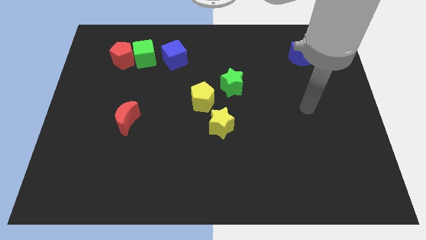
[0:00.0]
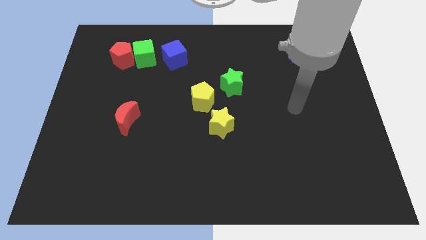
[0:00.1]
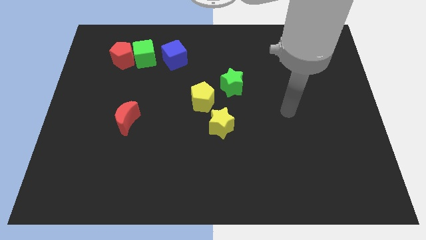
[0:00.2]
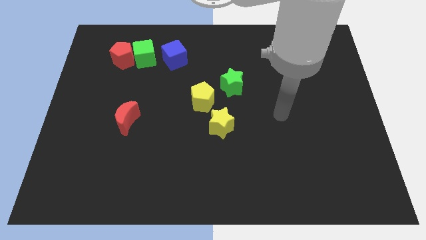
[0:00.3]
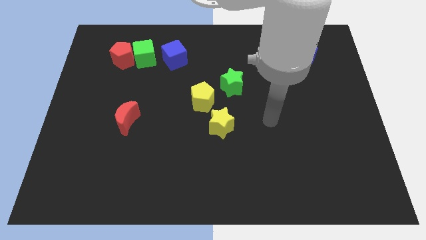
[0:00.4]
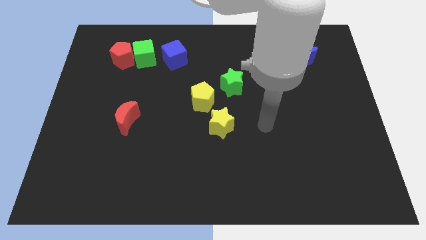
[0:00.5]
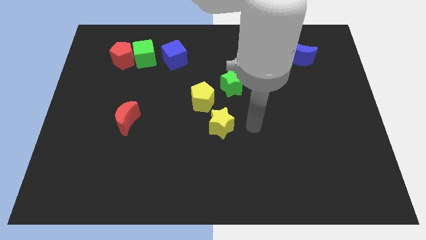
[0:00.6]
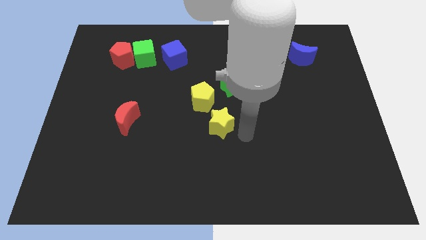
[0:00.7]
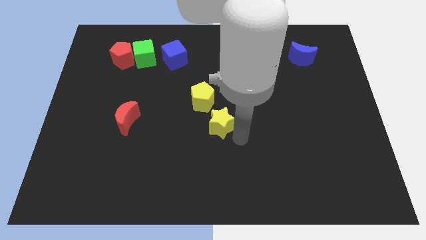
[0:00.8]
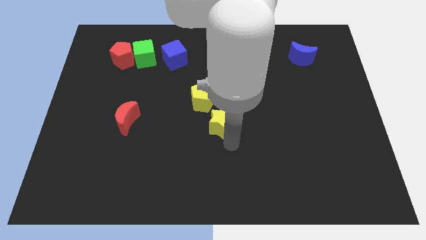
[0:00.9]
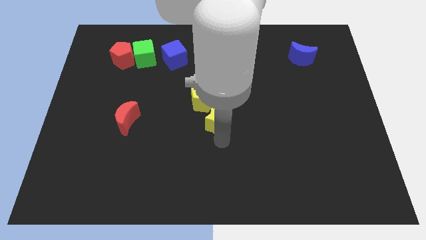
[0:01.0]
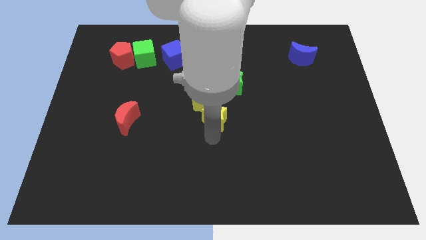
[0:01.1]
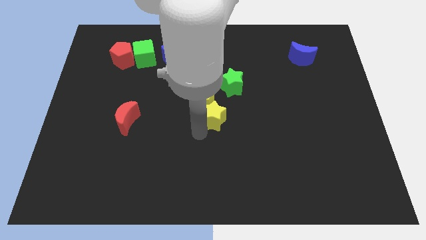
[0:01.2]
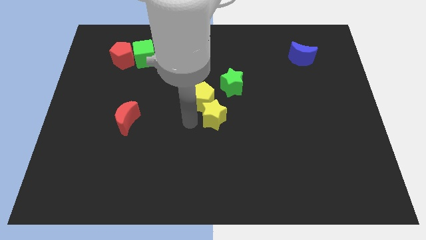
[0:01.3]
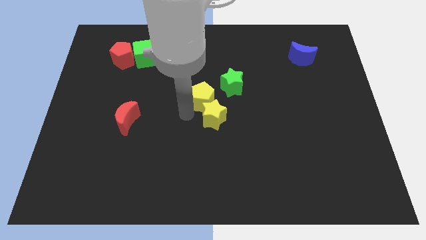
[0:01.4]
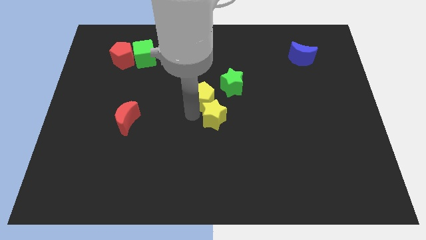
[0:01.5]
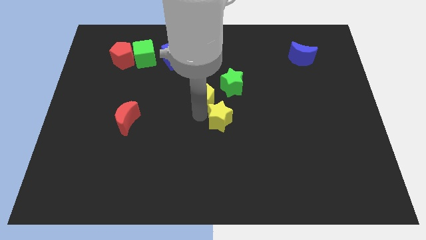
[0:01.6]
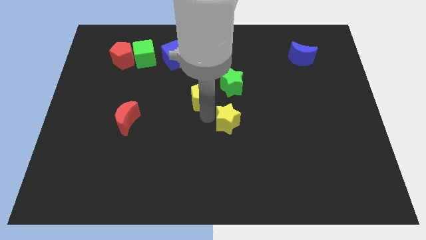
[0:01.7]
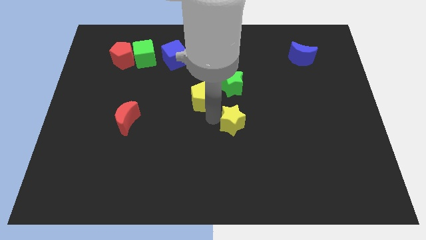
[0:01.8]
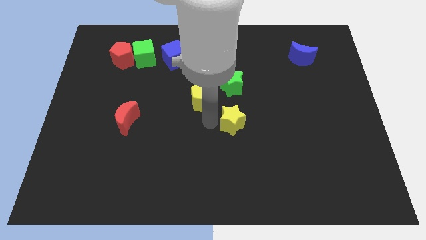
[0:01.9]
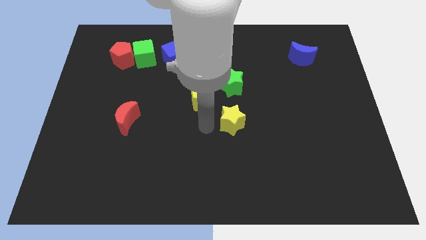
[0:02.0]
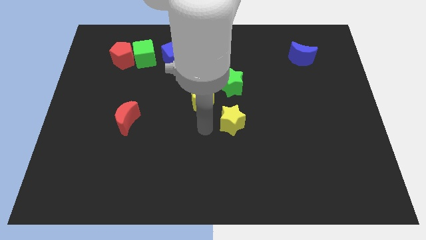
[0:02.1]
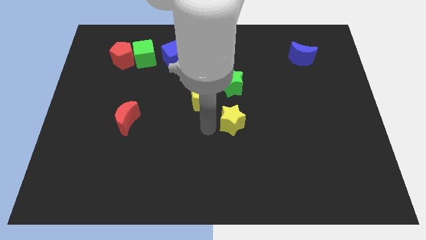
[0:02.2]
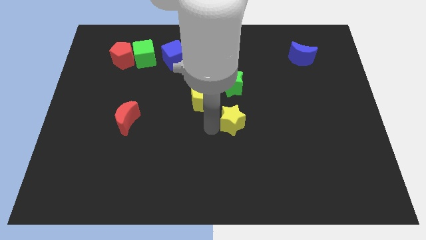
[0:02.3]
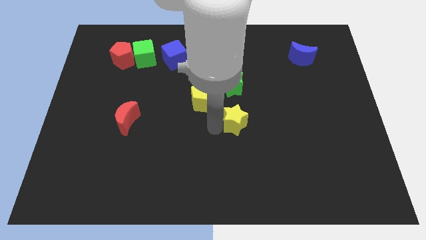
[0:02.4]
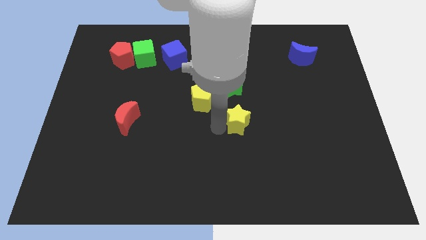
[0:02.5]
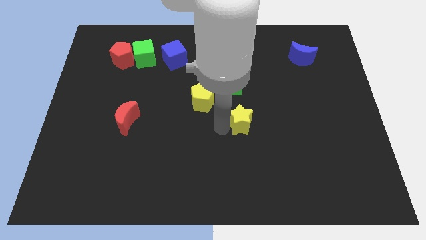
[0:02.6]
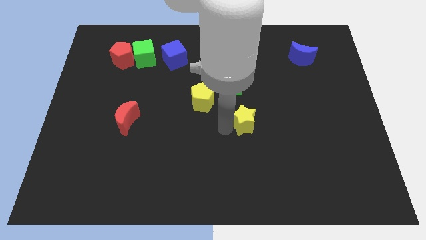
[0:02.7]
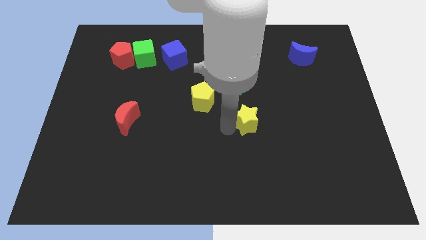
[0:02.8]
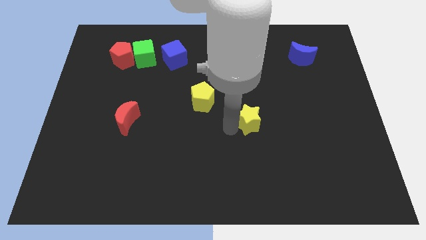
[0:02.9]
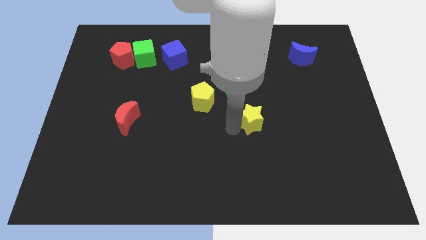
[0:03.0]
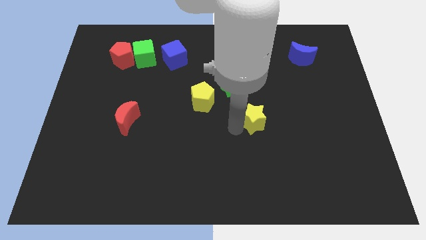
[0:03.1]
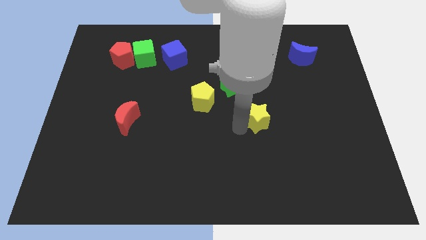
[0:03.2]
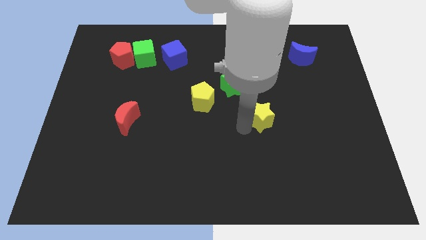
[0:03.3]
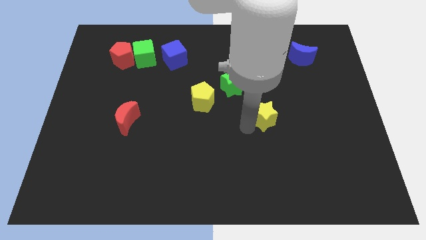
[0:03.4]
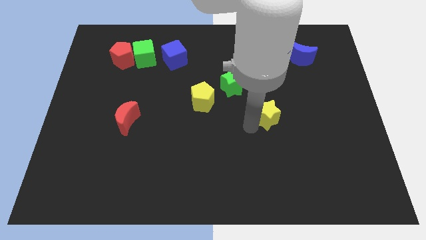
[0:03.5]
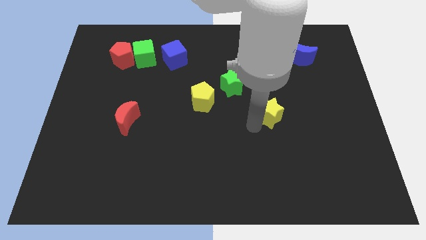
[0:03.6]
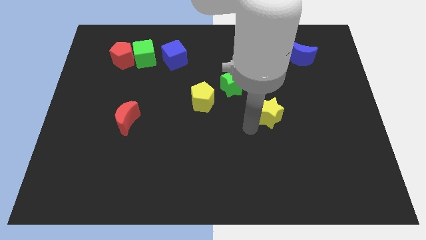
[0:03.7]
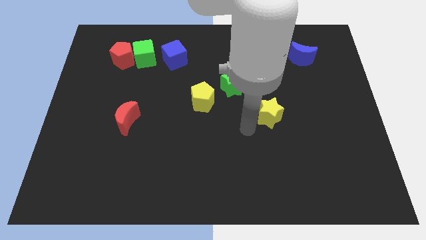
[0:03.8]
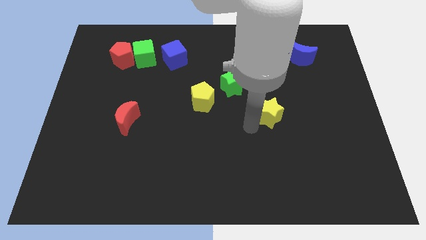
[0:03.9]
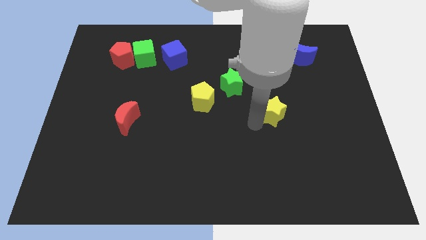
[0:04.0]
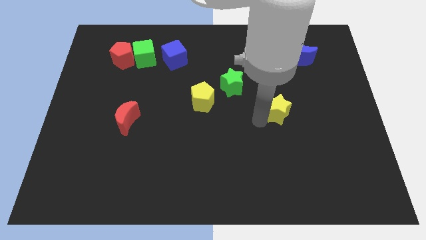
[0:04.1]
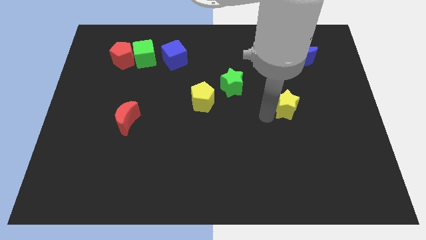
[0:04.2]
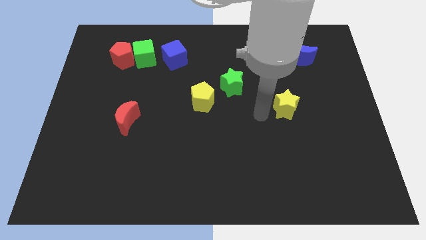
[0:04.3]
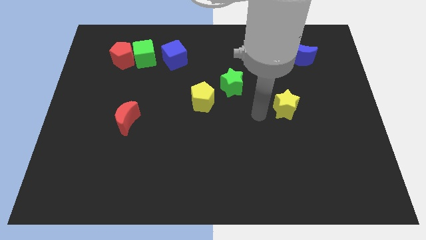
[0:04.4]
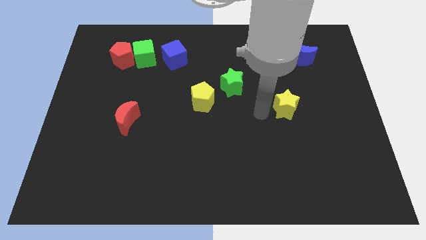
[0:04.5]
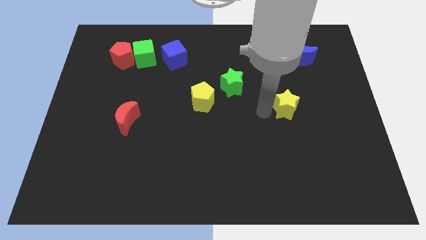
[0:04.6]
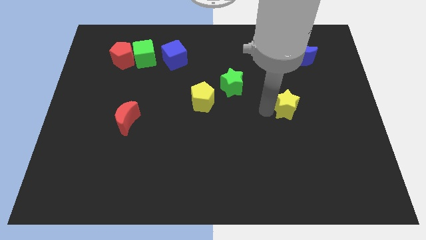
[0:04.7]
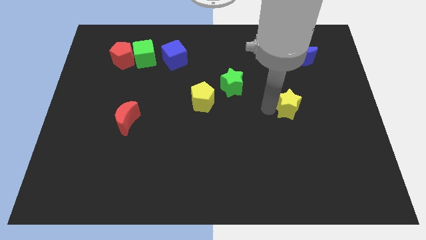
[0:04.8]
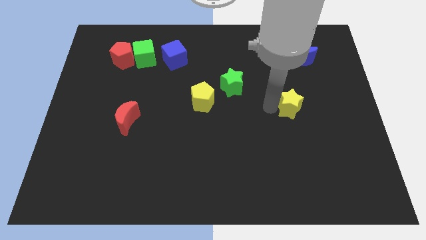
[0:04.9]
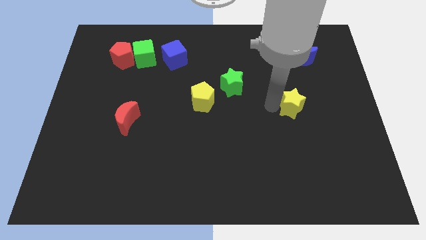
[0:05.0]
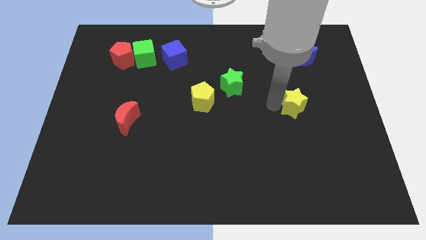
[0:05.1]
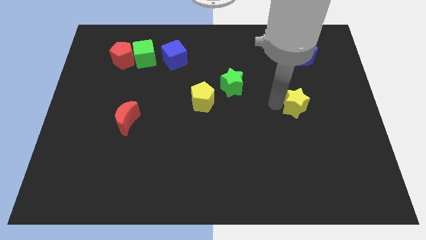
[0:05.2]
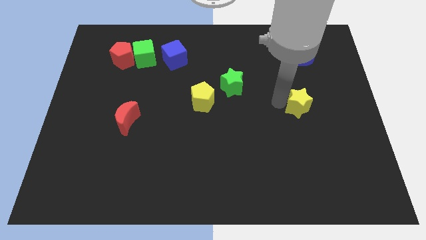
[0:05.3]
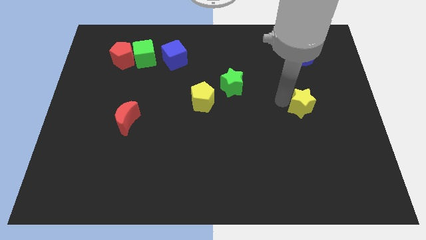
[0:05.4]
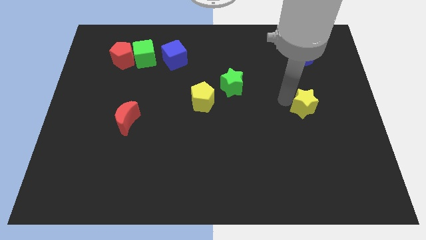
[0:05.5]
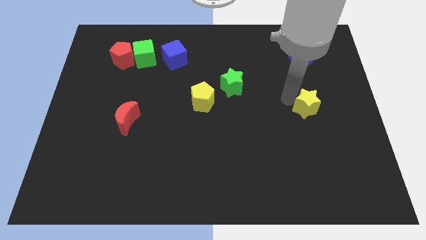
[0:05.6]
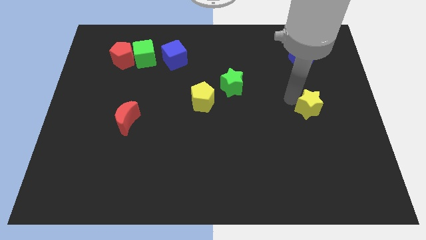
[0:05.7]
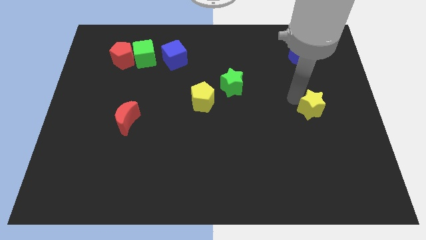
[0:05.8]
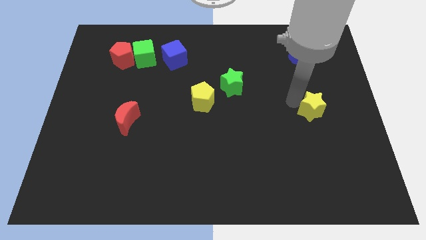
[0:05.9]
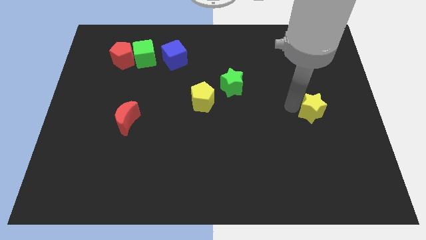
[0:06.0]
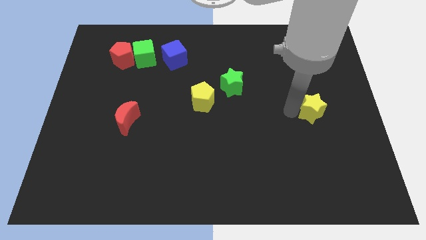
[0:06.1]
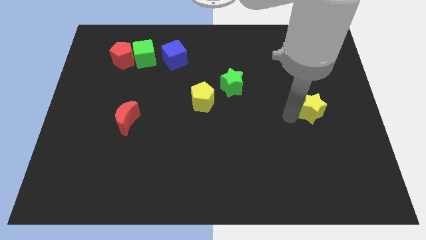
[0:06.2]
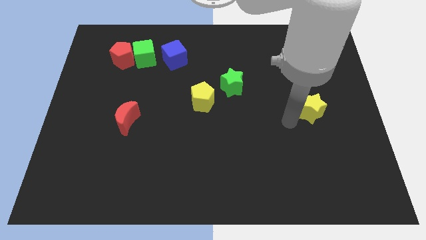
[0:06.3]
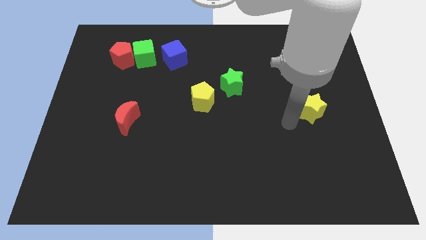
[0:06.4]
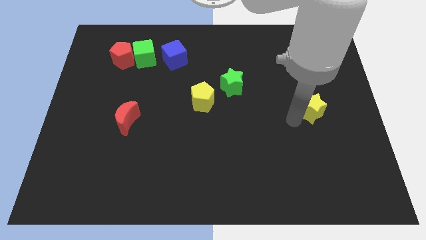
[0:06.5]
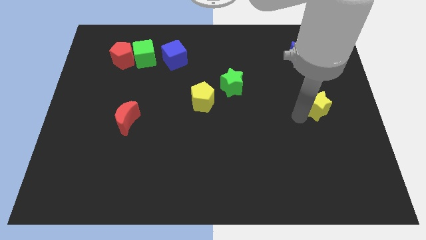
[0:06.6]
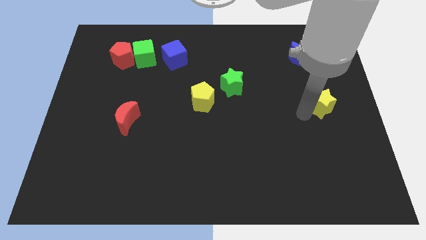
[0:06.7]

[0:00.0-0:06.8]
move the yellow star to the right side

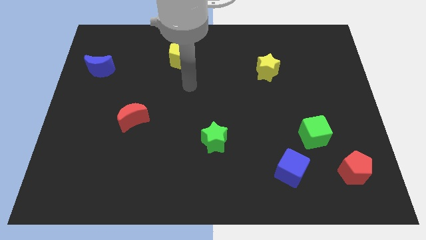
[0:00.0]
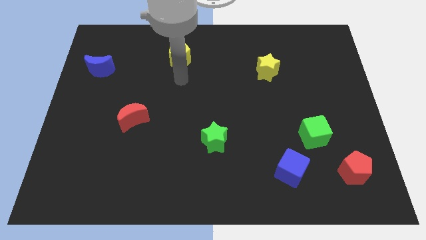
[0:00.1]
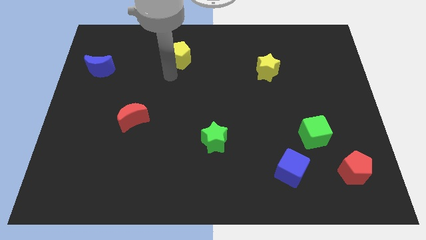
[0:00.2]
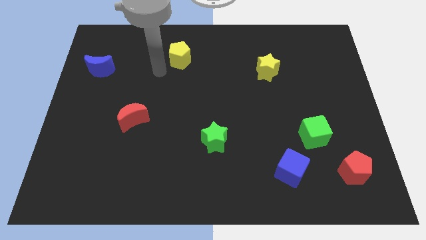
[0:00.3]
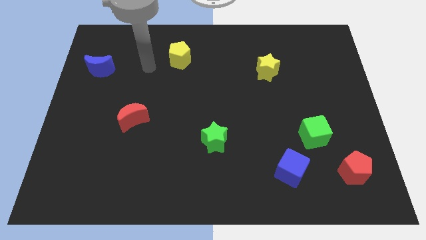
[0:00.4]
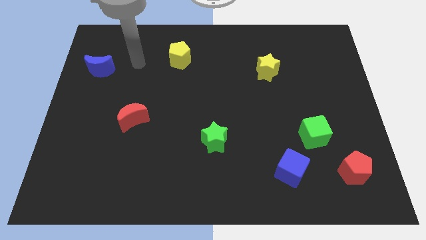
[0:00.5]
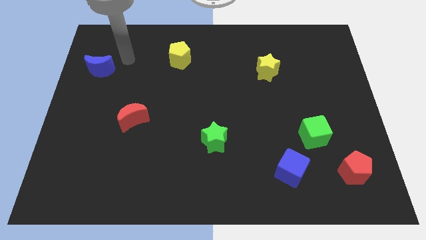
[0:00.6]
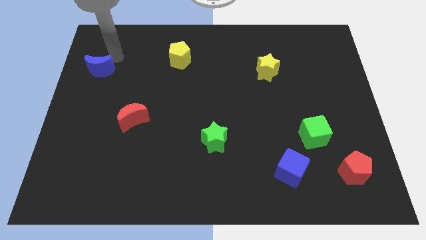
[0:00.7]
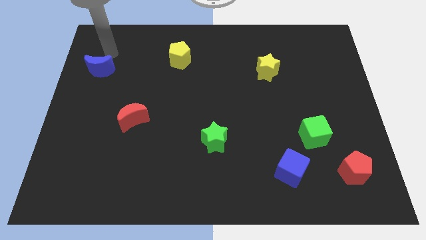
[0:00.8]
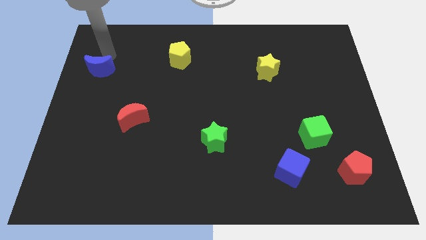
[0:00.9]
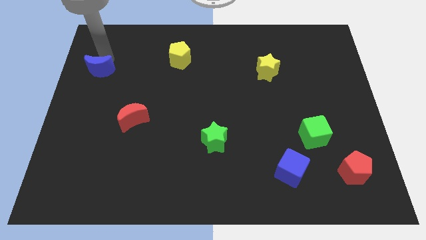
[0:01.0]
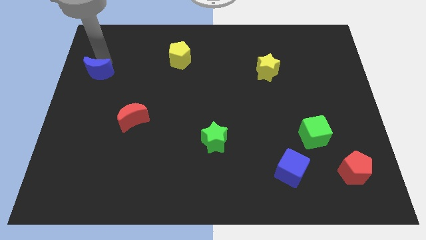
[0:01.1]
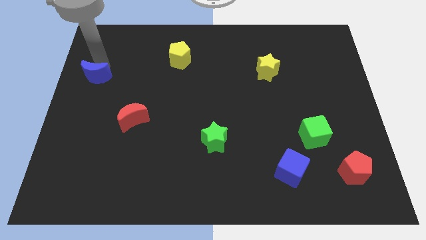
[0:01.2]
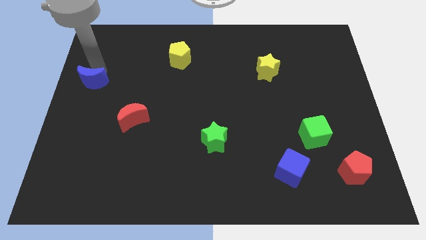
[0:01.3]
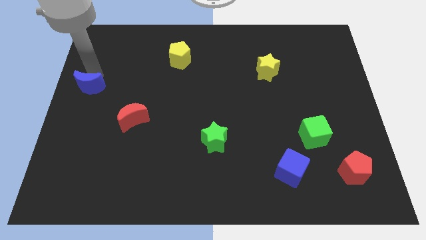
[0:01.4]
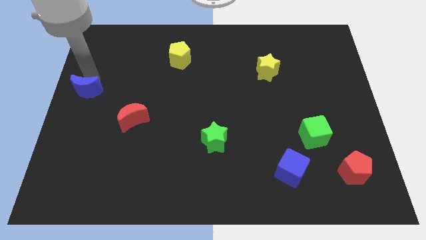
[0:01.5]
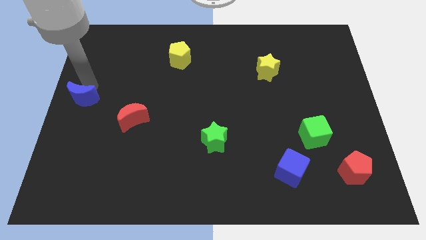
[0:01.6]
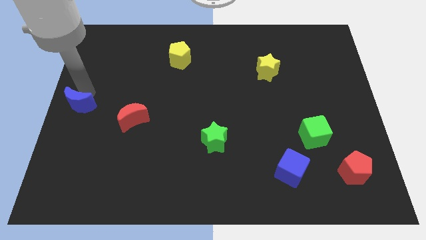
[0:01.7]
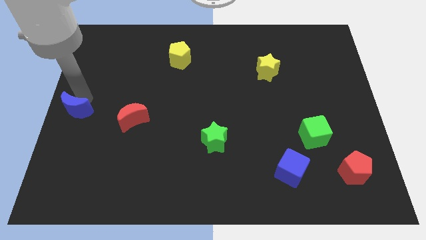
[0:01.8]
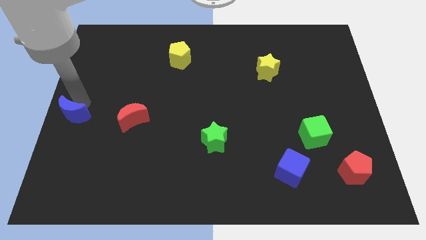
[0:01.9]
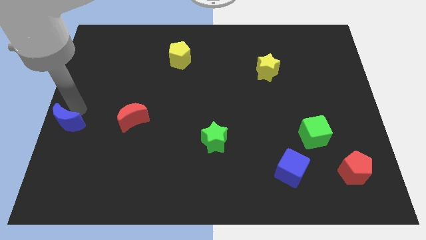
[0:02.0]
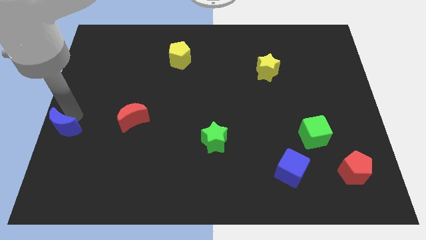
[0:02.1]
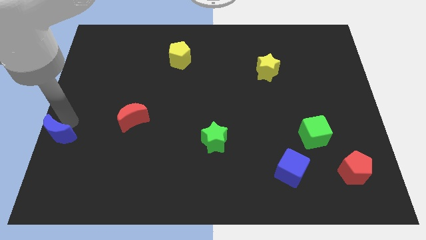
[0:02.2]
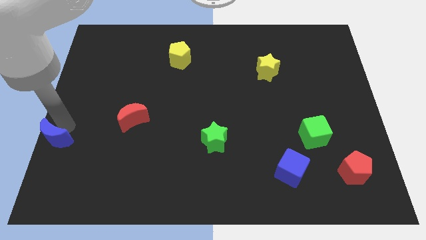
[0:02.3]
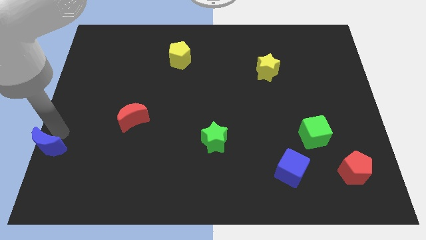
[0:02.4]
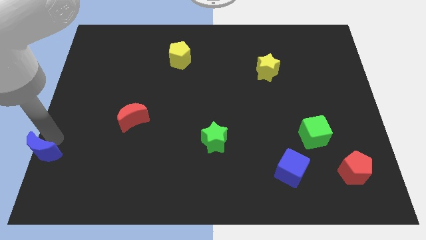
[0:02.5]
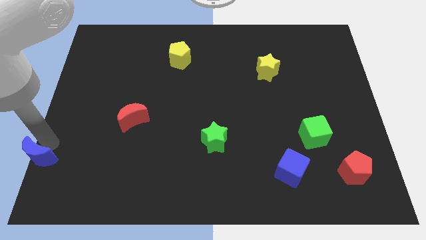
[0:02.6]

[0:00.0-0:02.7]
put the blue moon to the lower left corner
